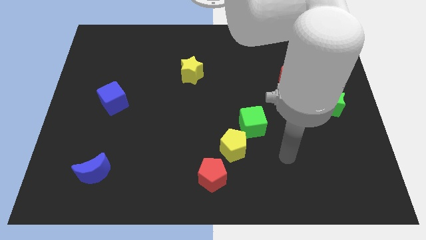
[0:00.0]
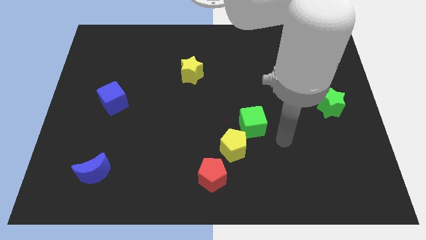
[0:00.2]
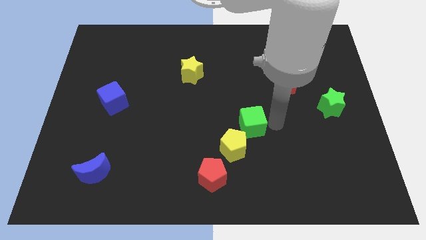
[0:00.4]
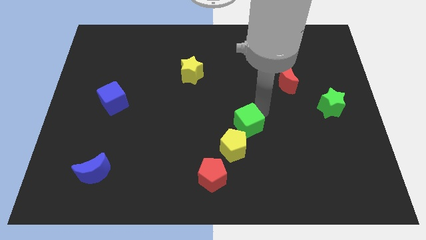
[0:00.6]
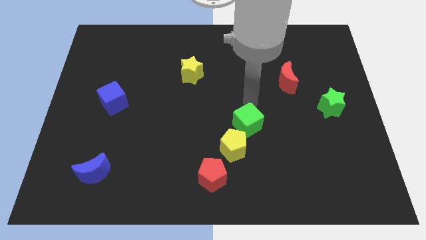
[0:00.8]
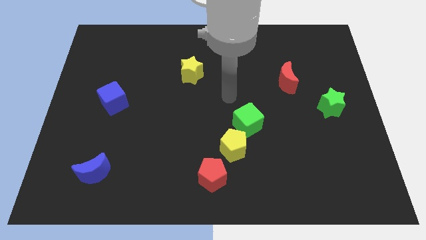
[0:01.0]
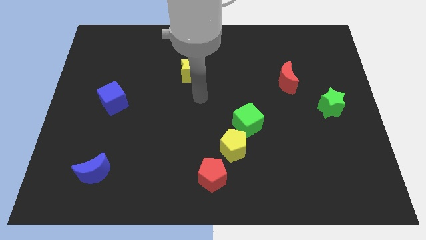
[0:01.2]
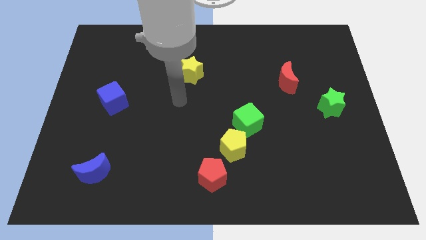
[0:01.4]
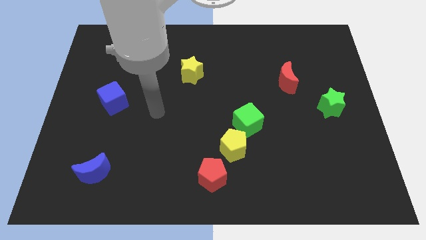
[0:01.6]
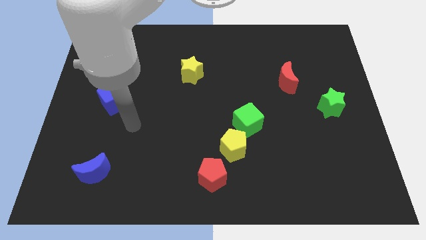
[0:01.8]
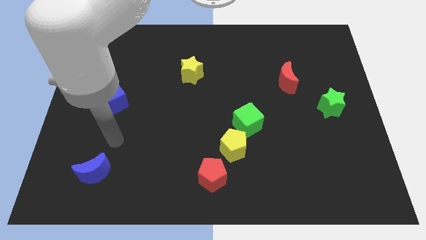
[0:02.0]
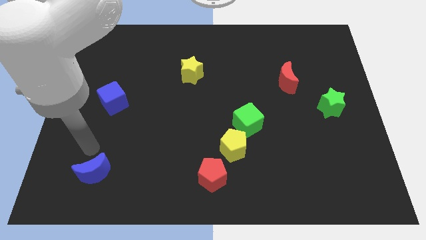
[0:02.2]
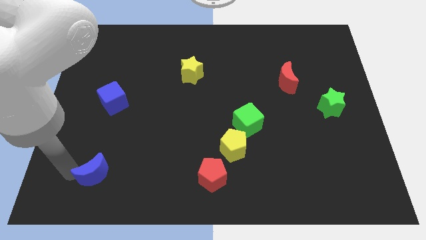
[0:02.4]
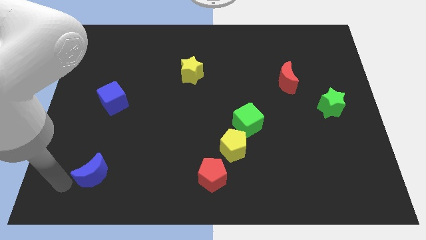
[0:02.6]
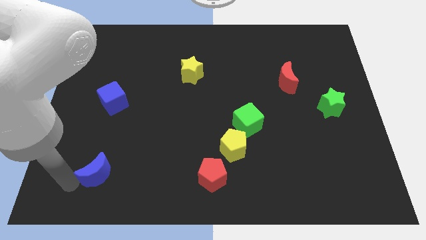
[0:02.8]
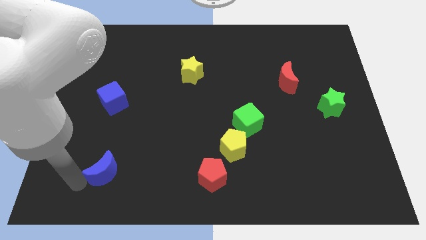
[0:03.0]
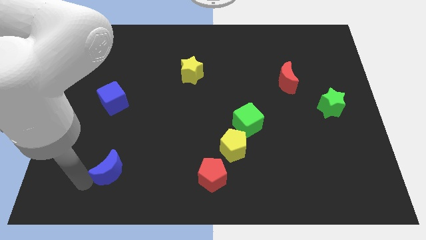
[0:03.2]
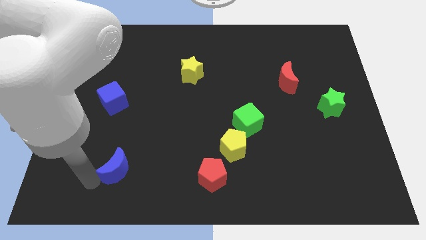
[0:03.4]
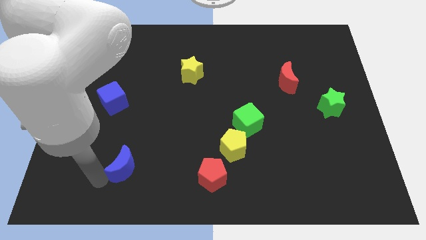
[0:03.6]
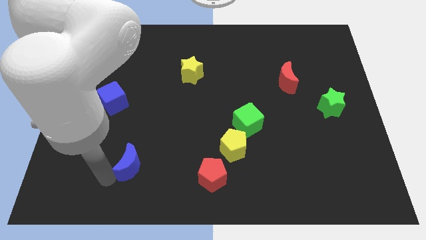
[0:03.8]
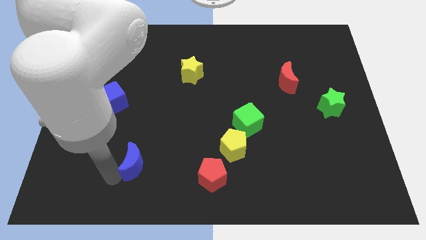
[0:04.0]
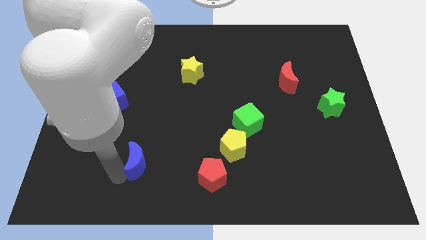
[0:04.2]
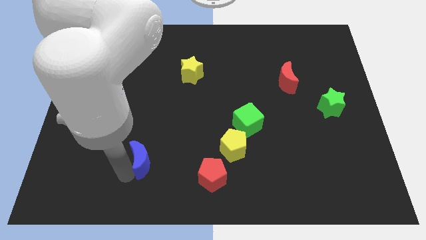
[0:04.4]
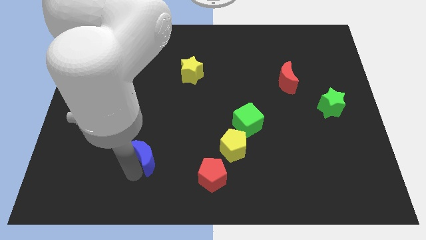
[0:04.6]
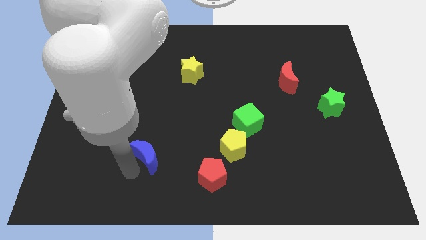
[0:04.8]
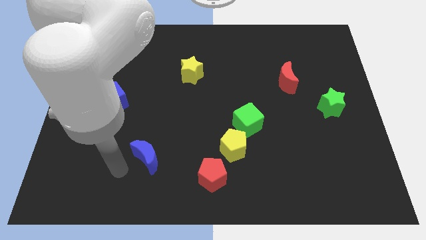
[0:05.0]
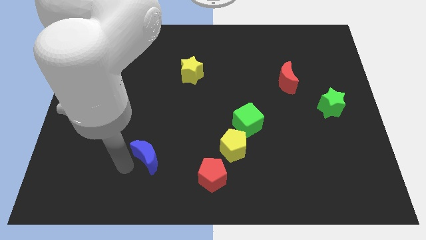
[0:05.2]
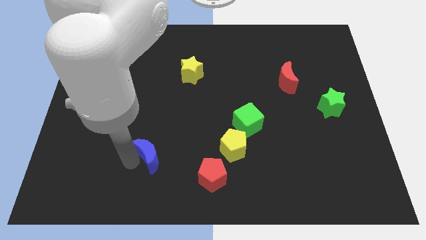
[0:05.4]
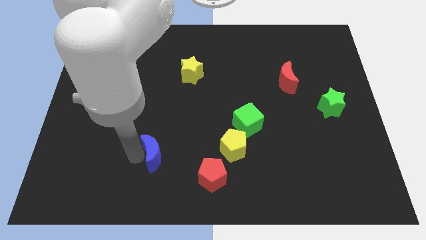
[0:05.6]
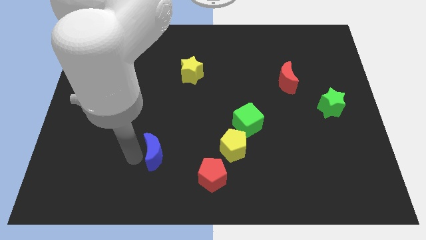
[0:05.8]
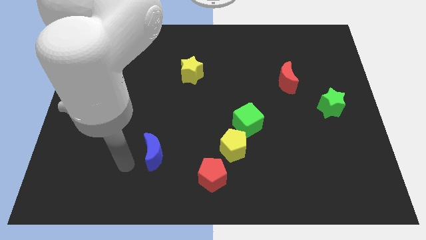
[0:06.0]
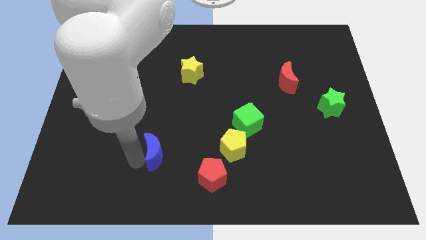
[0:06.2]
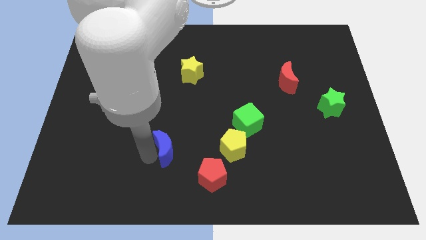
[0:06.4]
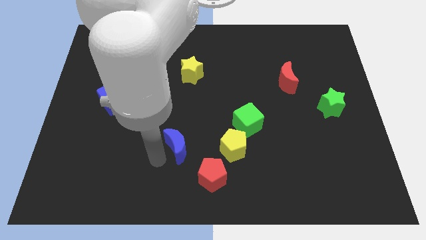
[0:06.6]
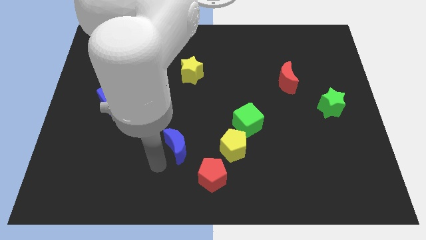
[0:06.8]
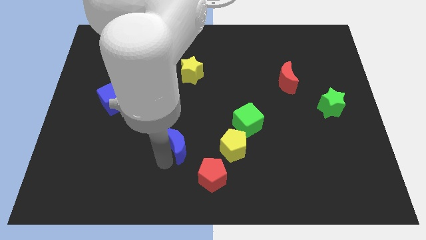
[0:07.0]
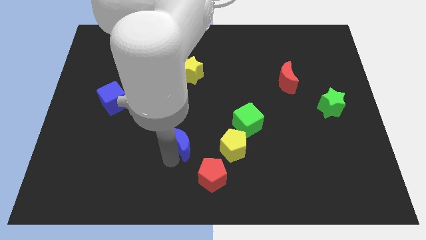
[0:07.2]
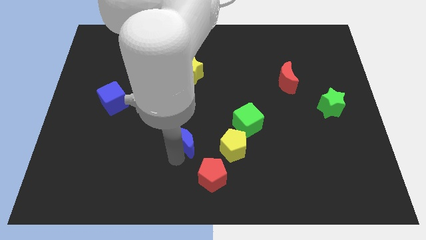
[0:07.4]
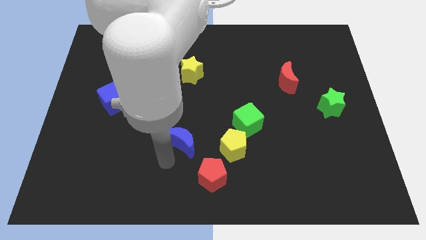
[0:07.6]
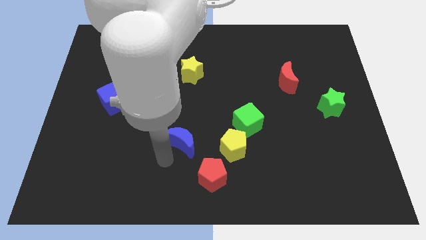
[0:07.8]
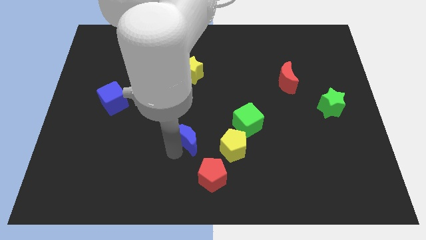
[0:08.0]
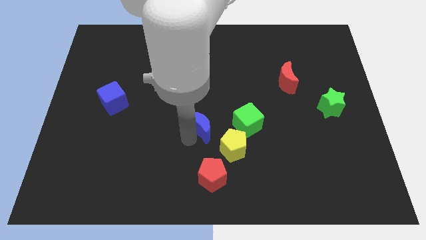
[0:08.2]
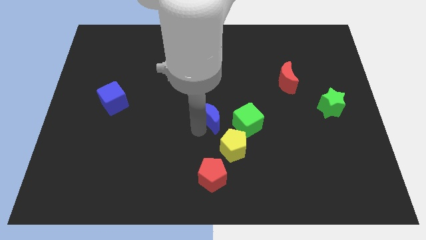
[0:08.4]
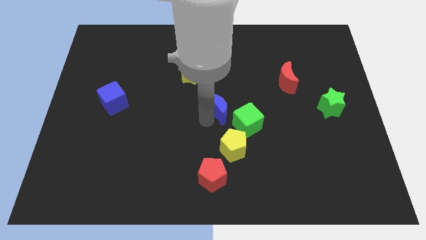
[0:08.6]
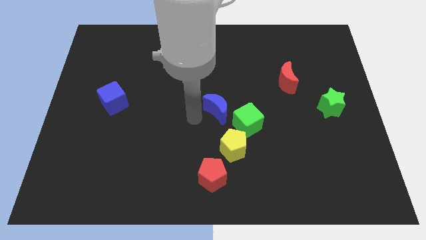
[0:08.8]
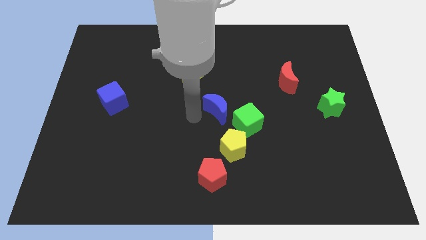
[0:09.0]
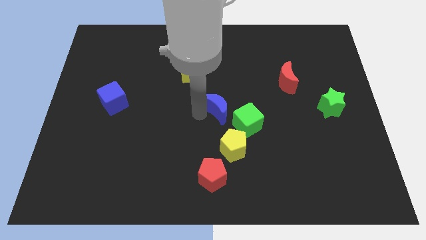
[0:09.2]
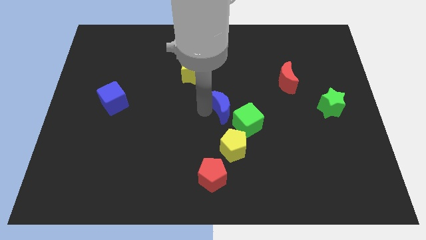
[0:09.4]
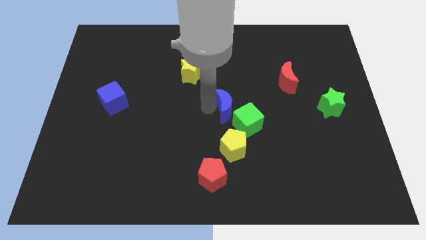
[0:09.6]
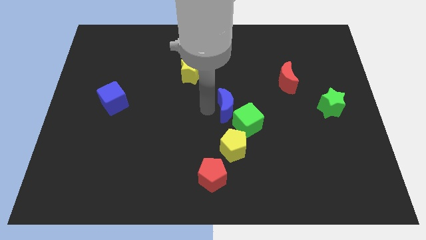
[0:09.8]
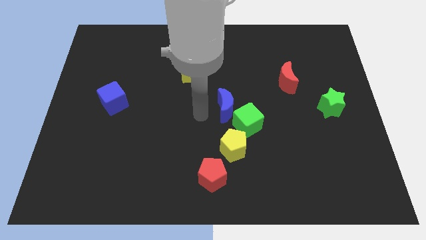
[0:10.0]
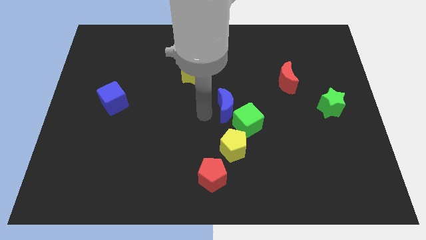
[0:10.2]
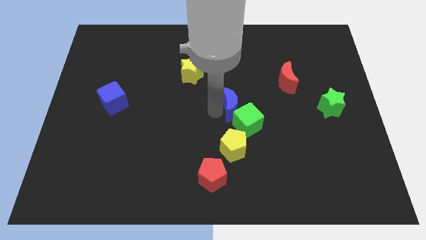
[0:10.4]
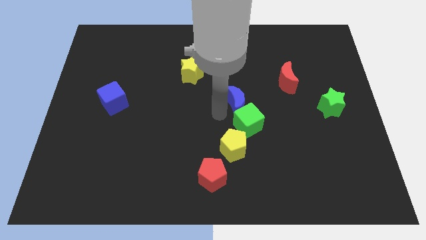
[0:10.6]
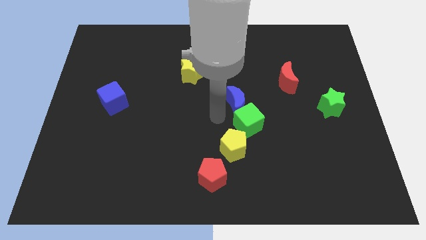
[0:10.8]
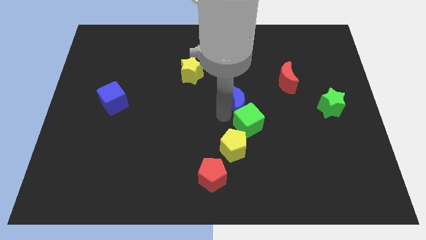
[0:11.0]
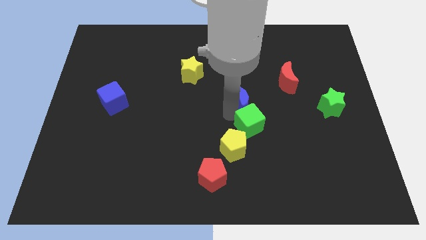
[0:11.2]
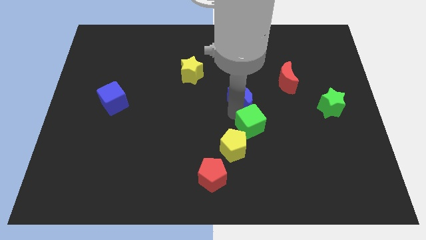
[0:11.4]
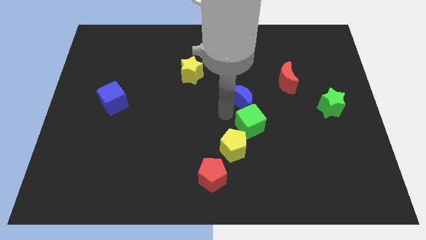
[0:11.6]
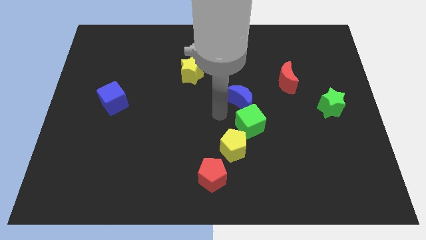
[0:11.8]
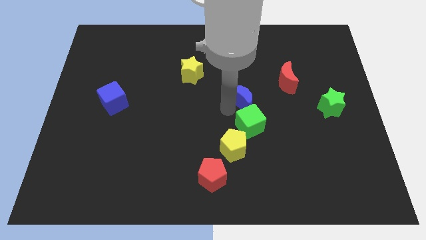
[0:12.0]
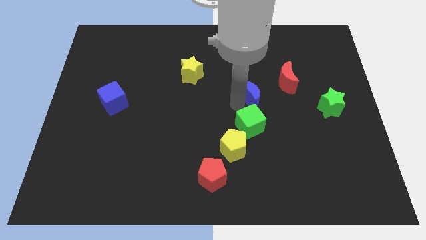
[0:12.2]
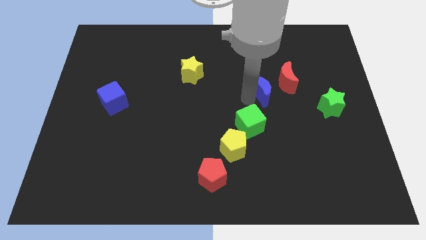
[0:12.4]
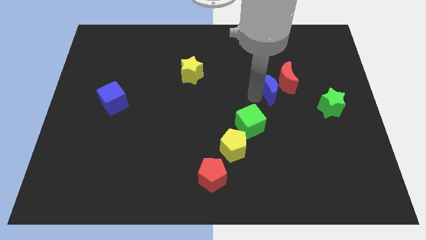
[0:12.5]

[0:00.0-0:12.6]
push the blue moon to the red moon
